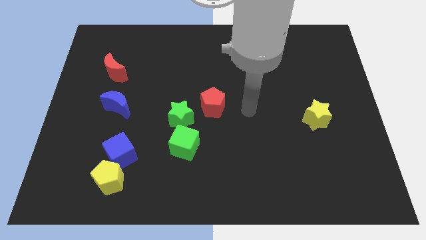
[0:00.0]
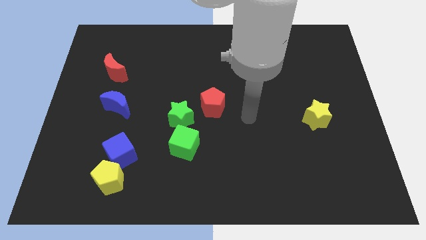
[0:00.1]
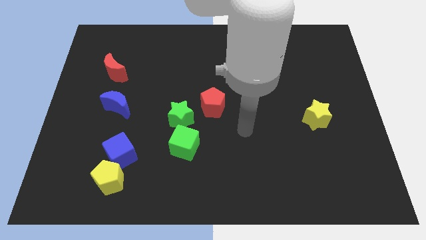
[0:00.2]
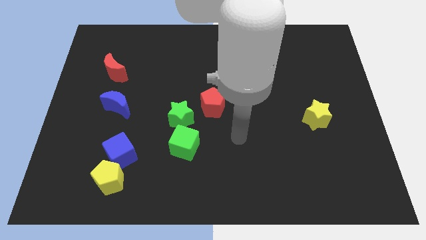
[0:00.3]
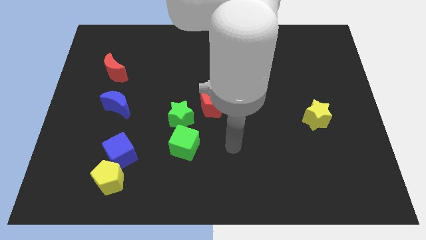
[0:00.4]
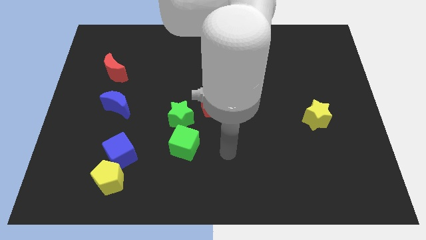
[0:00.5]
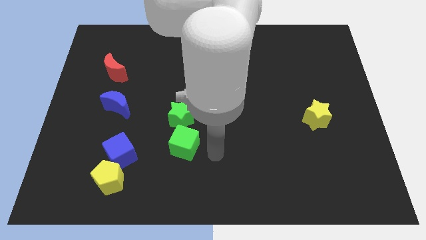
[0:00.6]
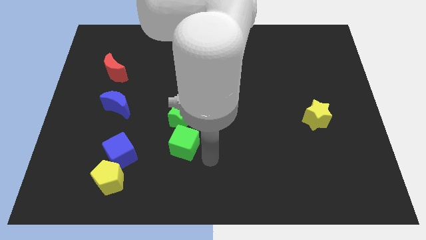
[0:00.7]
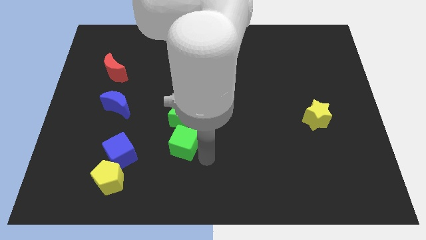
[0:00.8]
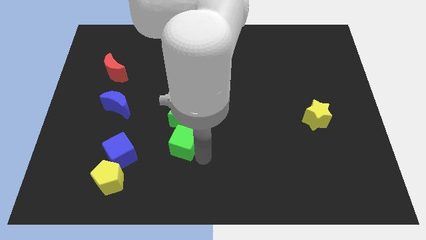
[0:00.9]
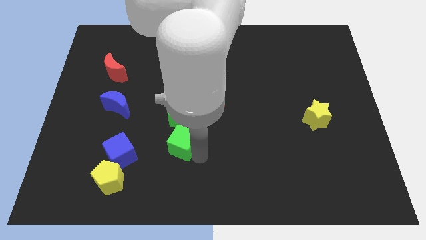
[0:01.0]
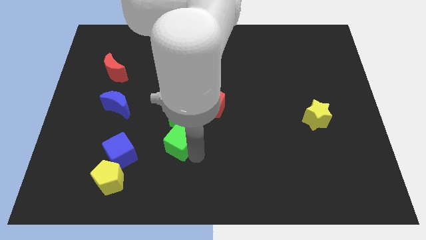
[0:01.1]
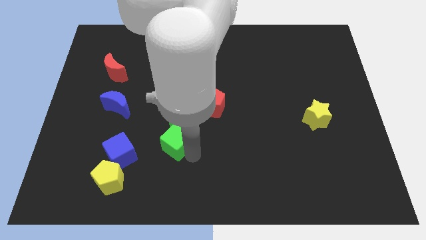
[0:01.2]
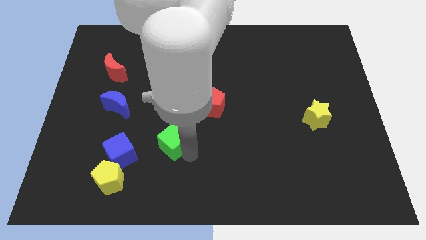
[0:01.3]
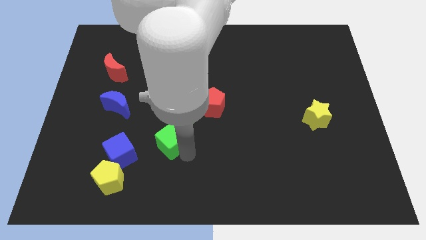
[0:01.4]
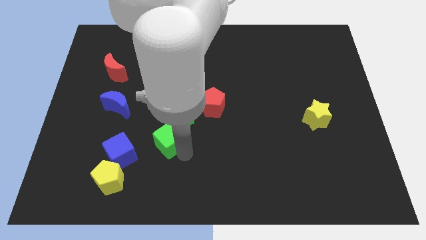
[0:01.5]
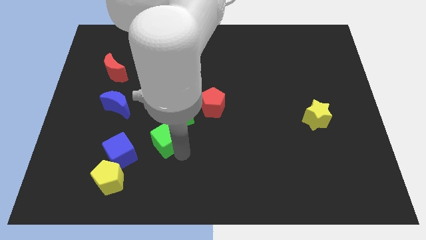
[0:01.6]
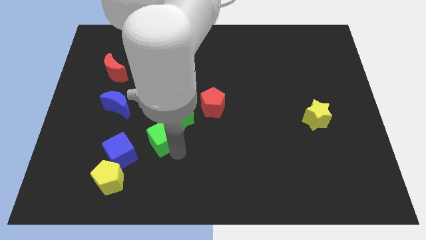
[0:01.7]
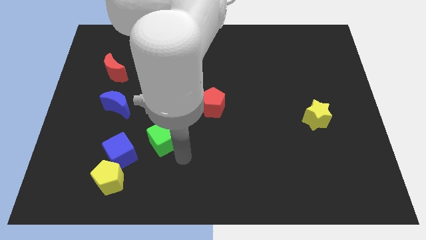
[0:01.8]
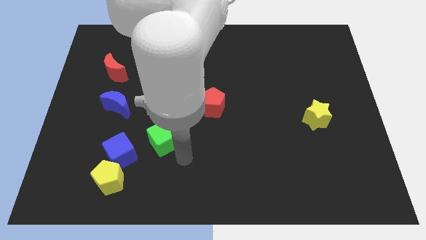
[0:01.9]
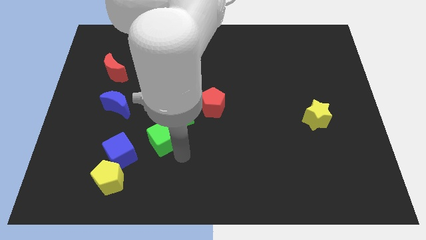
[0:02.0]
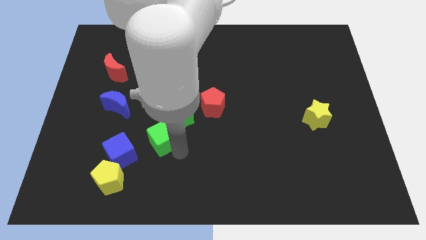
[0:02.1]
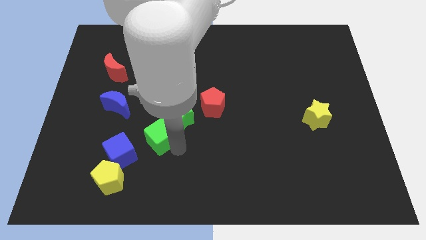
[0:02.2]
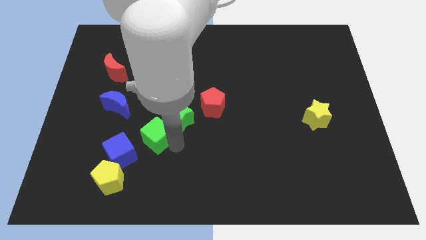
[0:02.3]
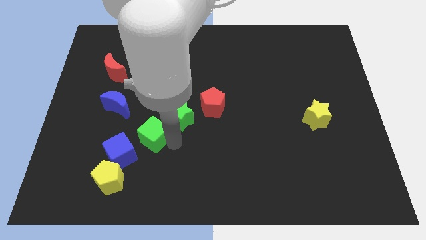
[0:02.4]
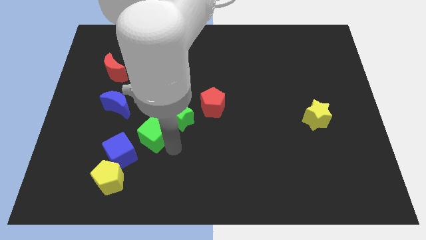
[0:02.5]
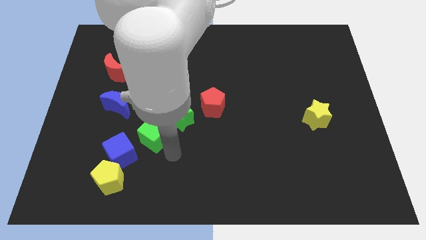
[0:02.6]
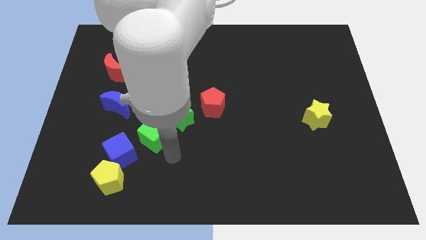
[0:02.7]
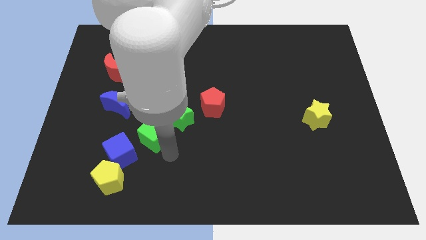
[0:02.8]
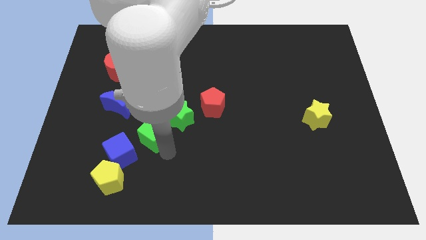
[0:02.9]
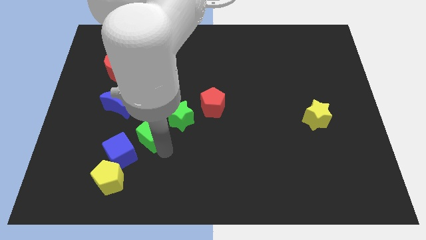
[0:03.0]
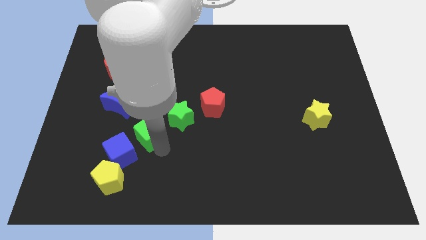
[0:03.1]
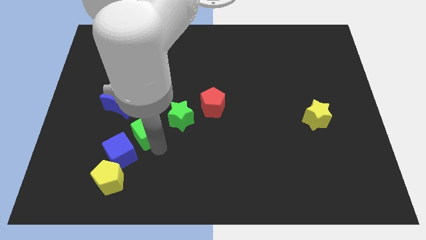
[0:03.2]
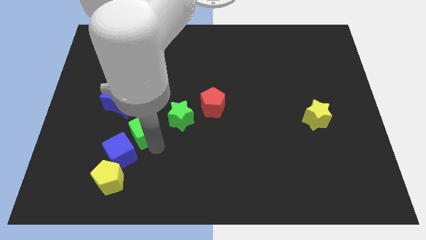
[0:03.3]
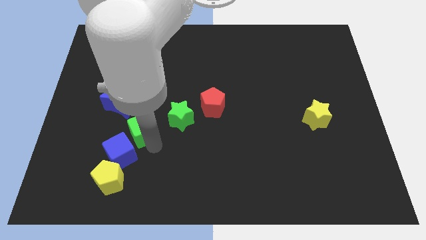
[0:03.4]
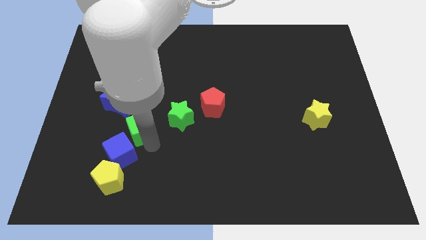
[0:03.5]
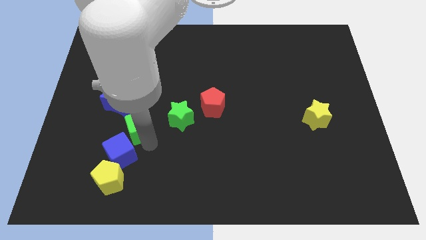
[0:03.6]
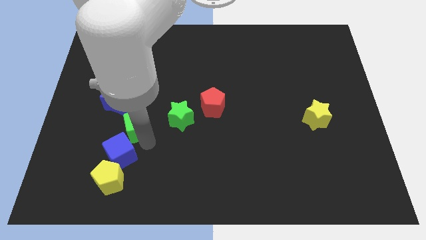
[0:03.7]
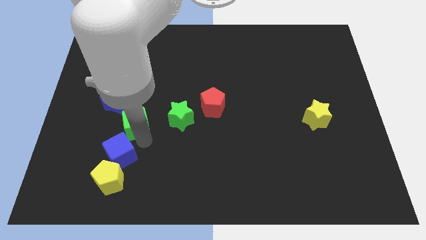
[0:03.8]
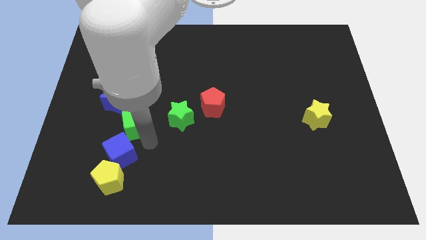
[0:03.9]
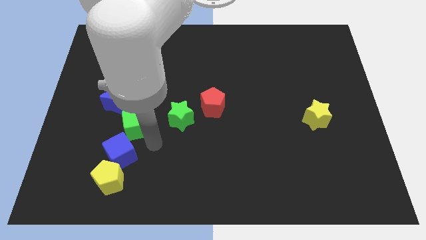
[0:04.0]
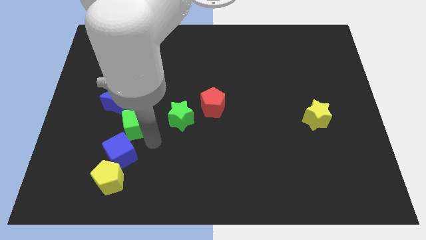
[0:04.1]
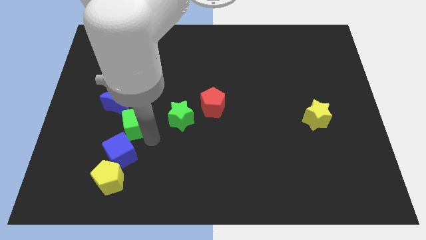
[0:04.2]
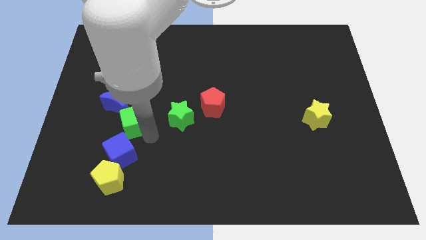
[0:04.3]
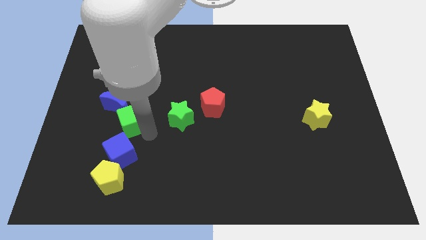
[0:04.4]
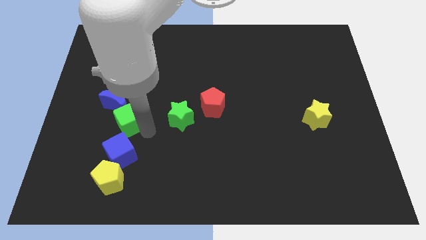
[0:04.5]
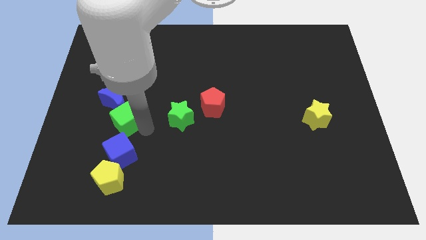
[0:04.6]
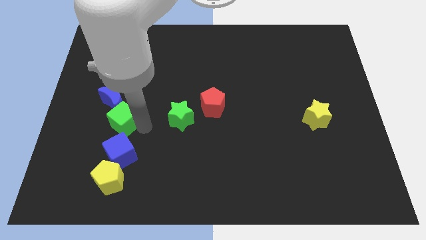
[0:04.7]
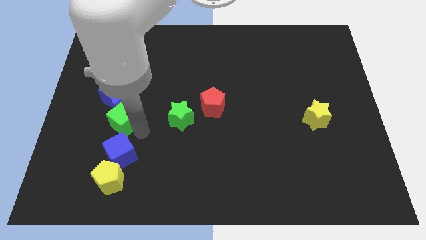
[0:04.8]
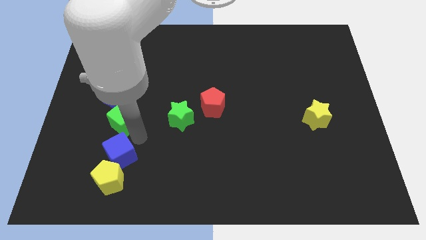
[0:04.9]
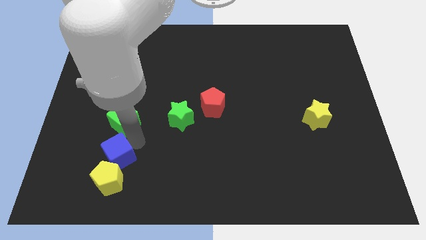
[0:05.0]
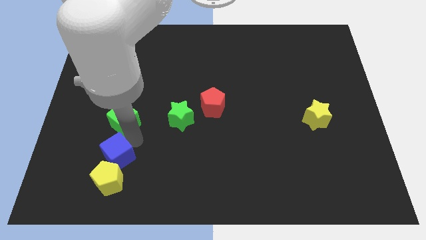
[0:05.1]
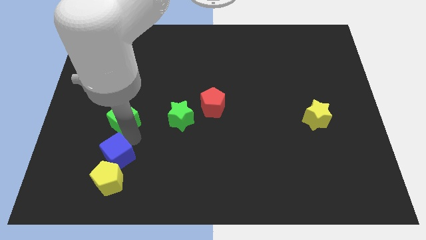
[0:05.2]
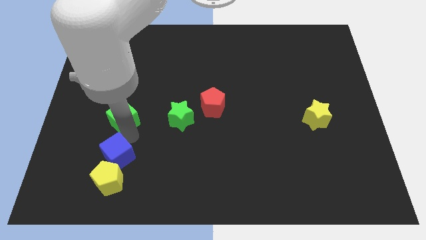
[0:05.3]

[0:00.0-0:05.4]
move the green cube to the blue moon

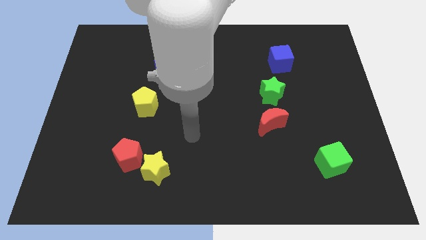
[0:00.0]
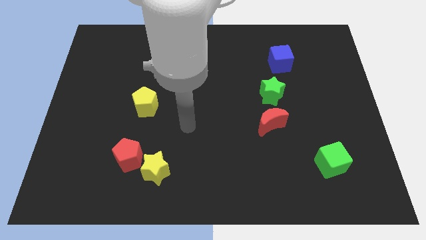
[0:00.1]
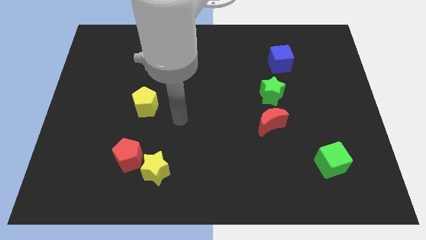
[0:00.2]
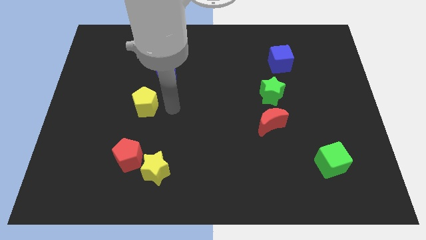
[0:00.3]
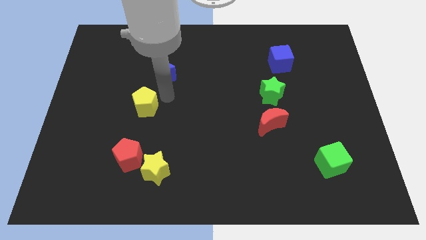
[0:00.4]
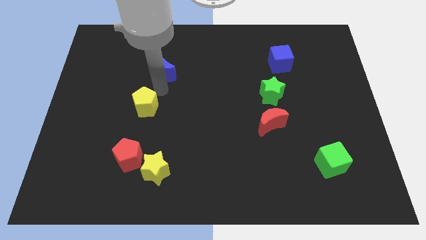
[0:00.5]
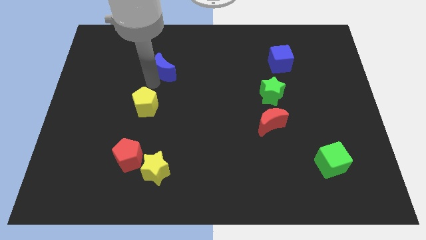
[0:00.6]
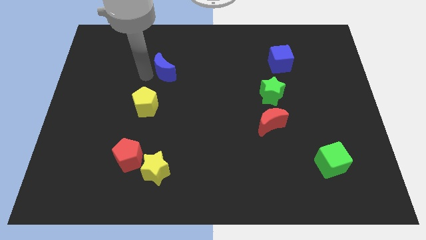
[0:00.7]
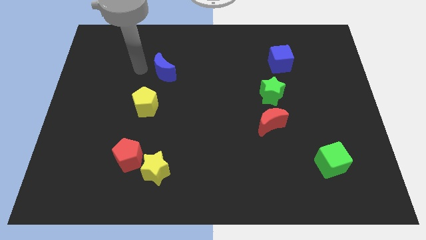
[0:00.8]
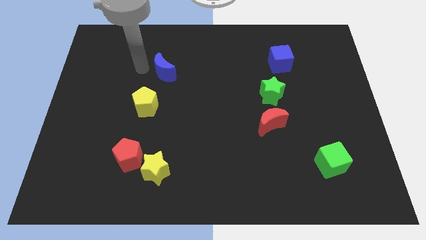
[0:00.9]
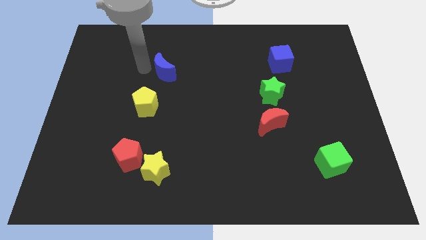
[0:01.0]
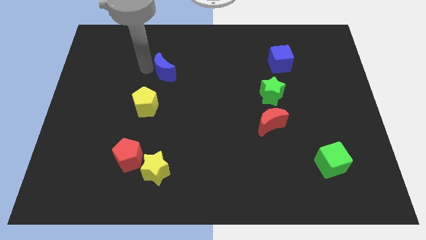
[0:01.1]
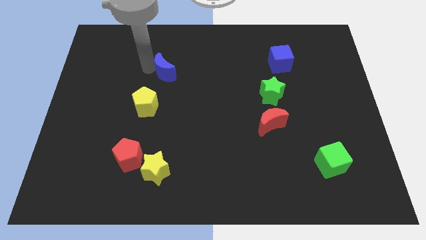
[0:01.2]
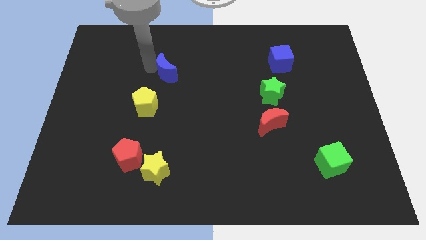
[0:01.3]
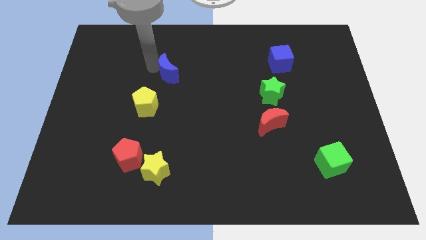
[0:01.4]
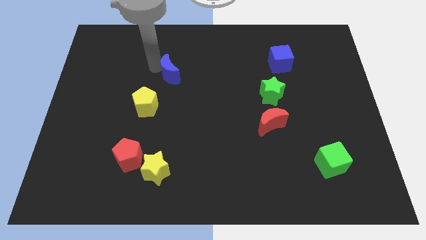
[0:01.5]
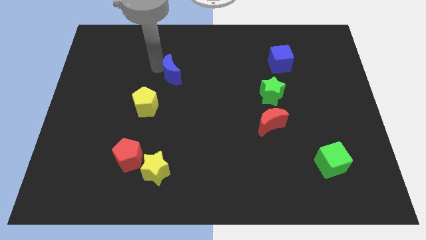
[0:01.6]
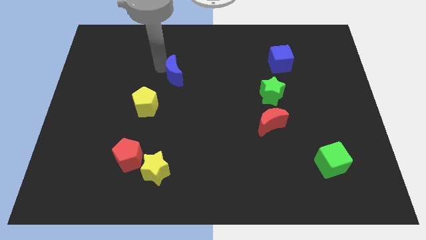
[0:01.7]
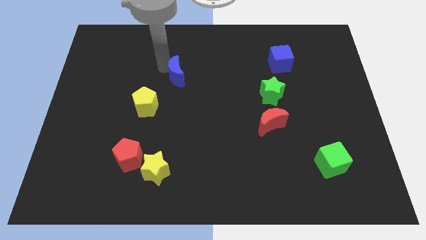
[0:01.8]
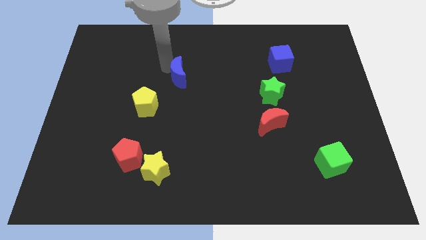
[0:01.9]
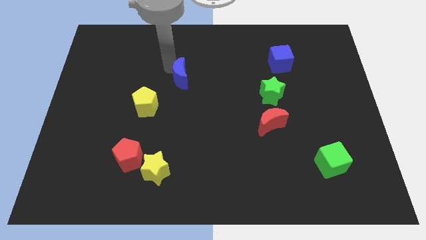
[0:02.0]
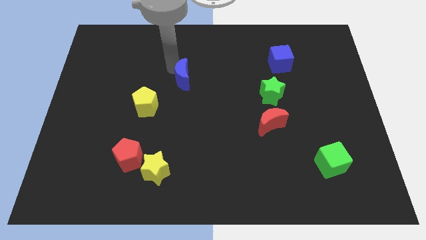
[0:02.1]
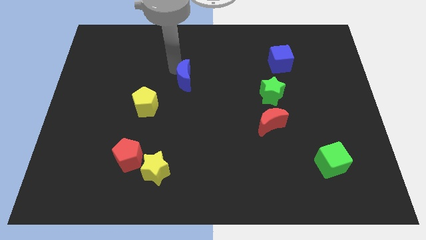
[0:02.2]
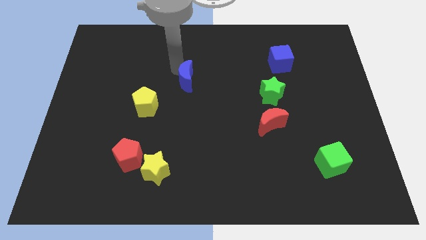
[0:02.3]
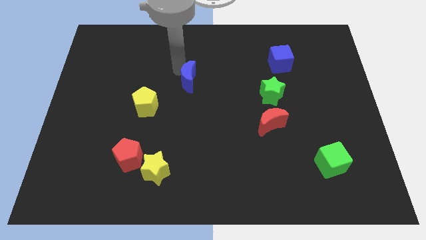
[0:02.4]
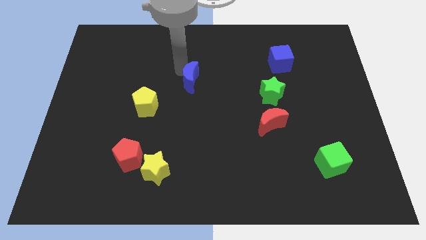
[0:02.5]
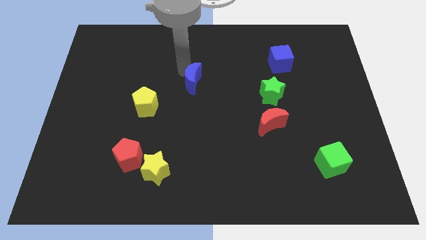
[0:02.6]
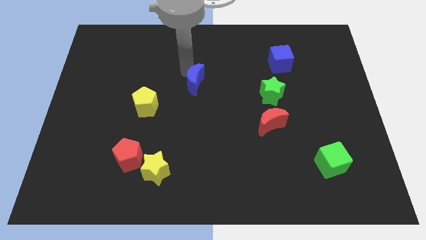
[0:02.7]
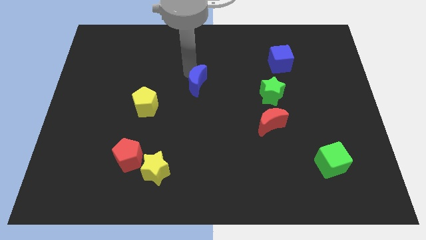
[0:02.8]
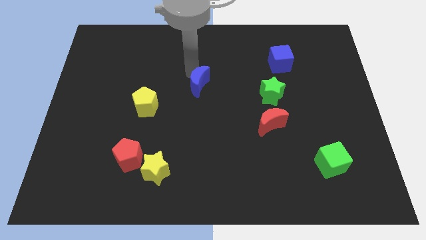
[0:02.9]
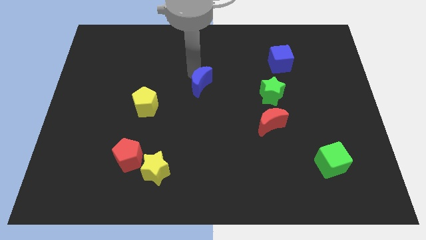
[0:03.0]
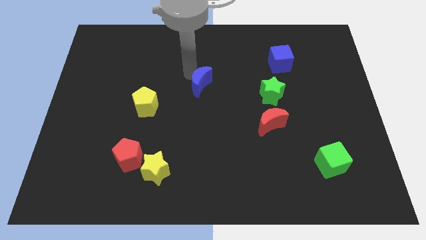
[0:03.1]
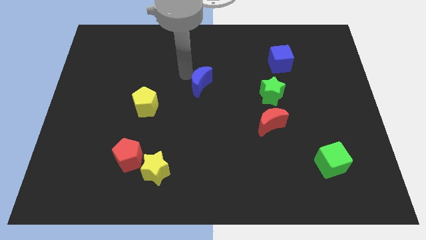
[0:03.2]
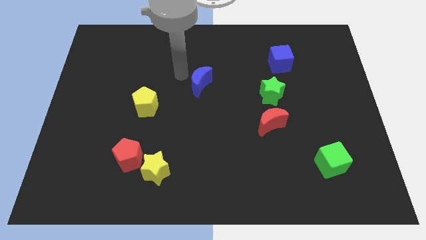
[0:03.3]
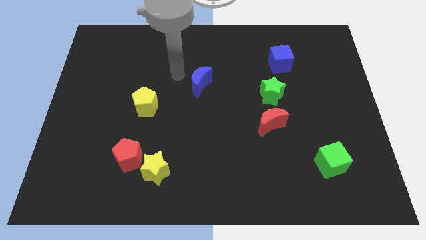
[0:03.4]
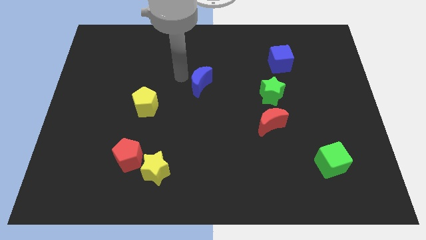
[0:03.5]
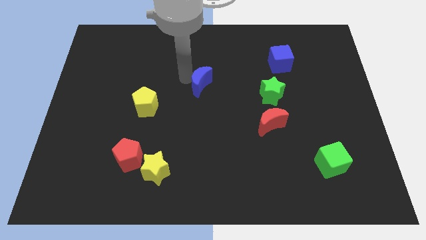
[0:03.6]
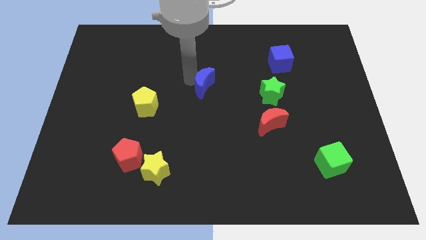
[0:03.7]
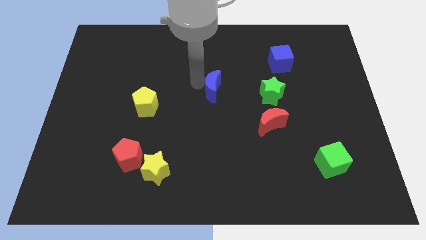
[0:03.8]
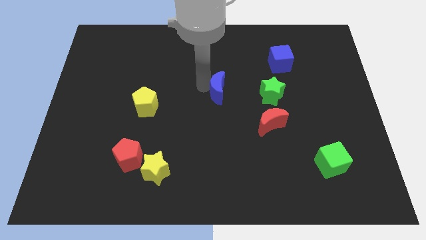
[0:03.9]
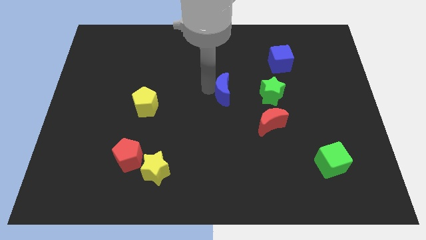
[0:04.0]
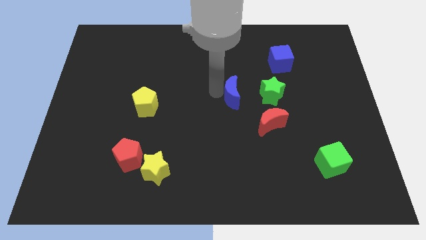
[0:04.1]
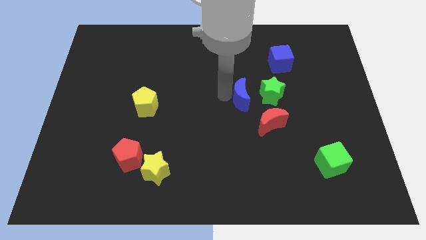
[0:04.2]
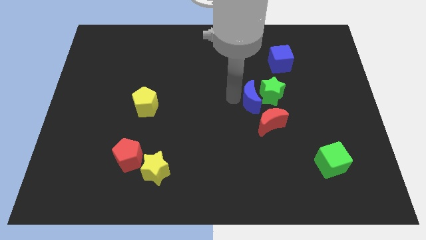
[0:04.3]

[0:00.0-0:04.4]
put the blue moon next to the green star
